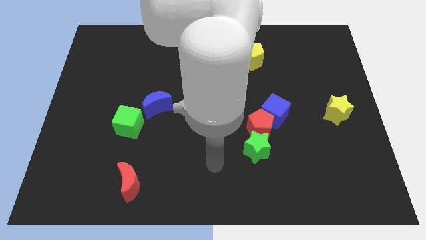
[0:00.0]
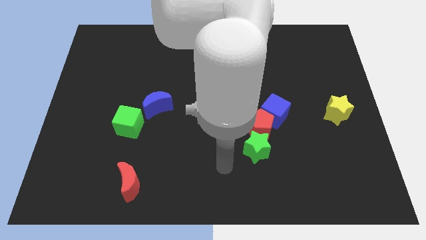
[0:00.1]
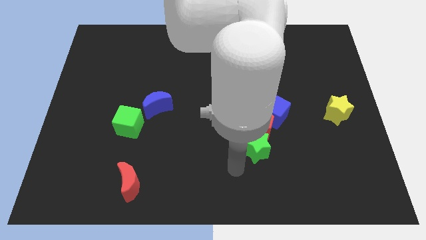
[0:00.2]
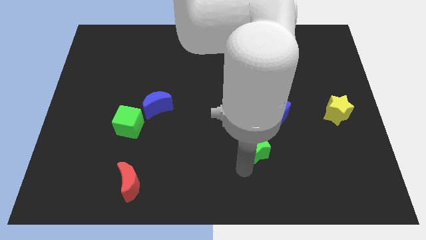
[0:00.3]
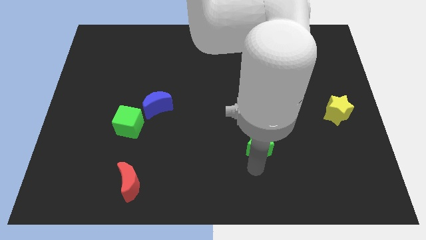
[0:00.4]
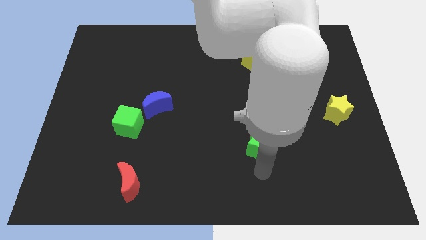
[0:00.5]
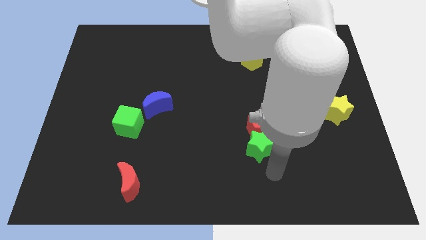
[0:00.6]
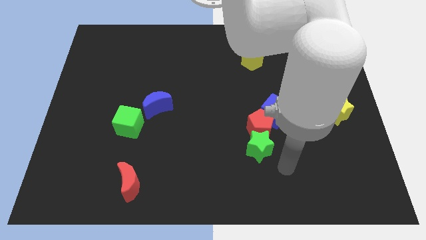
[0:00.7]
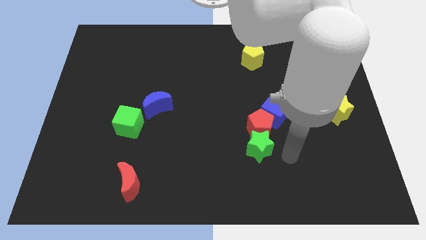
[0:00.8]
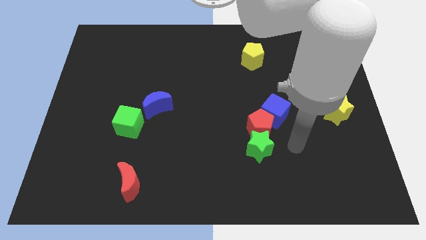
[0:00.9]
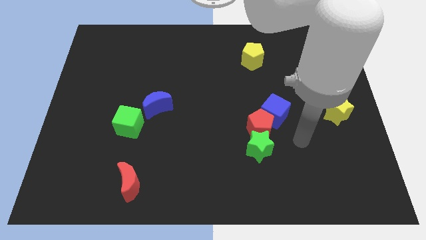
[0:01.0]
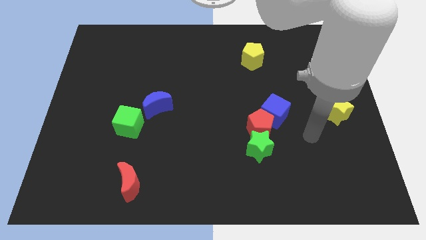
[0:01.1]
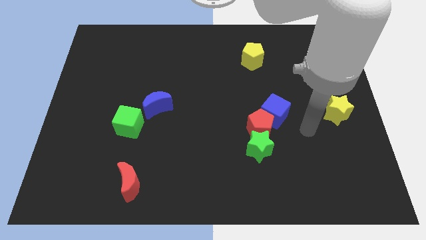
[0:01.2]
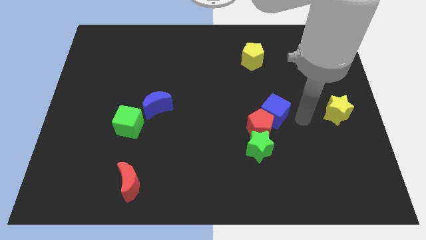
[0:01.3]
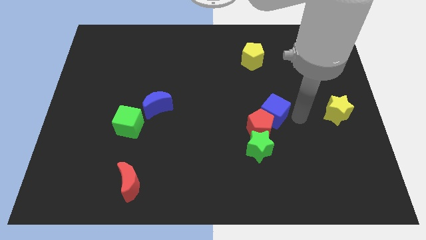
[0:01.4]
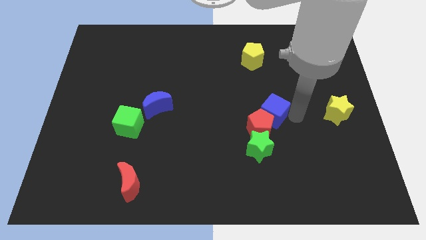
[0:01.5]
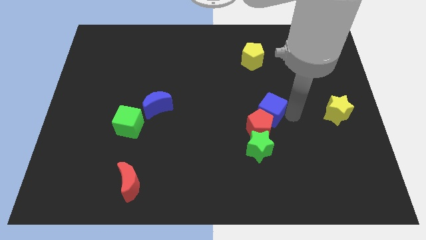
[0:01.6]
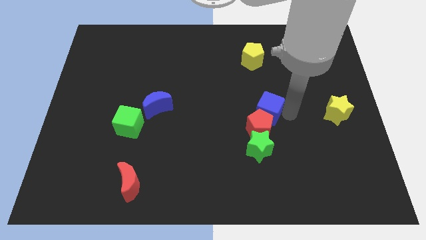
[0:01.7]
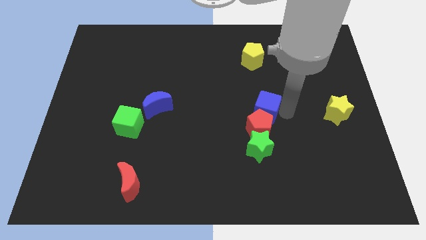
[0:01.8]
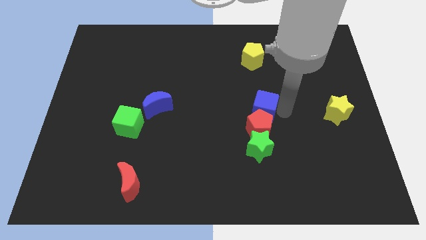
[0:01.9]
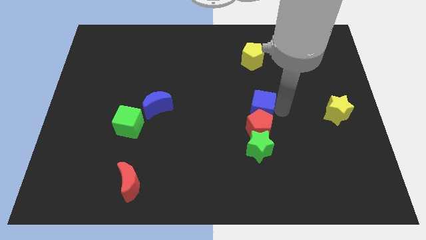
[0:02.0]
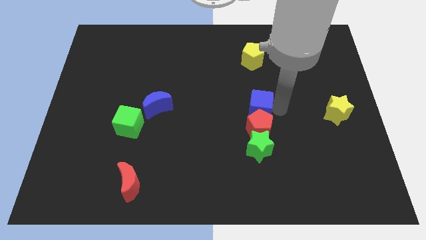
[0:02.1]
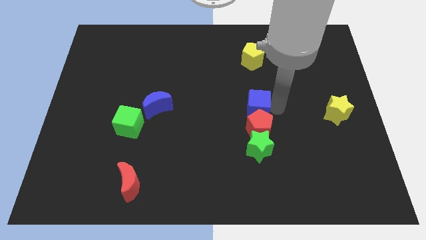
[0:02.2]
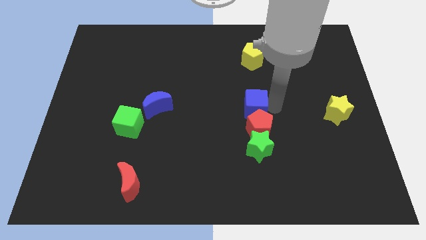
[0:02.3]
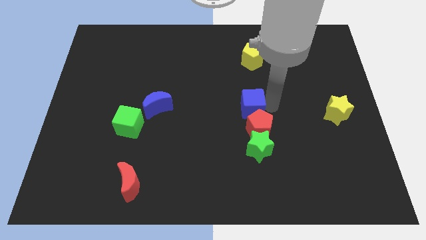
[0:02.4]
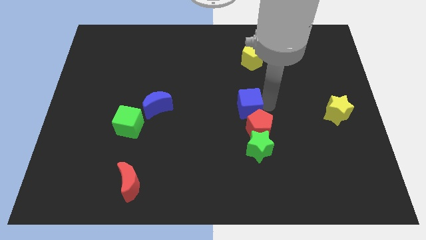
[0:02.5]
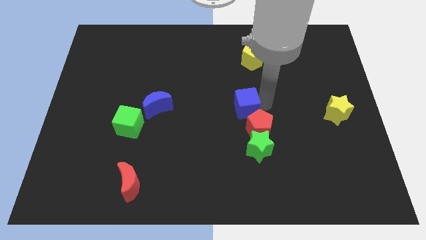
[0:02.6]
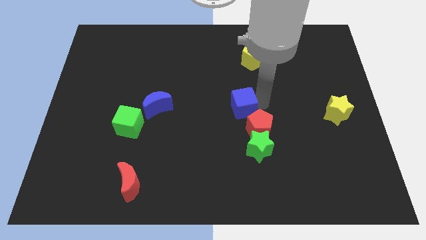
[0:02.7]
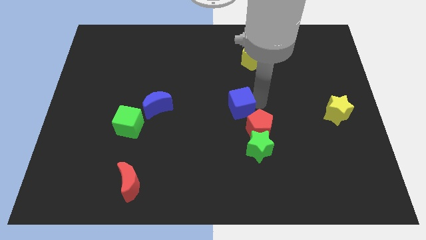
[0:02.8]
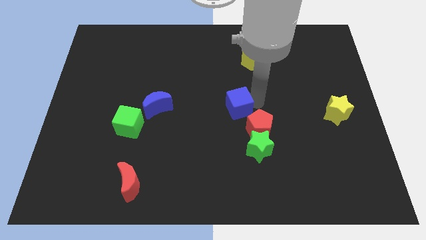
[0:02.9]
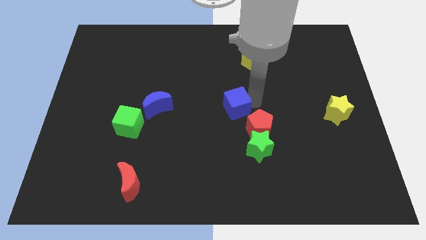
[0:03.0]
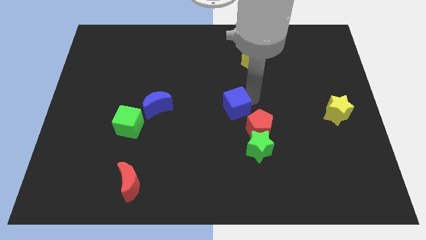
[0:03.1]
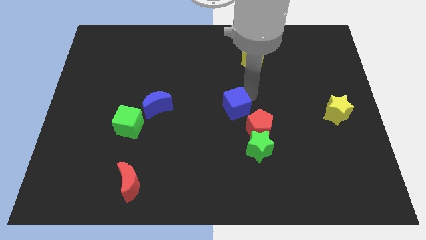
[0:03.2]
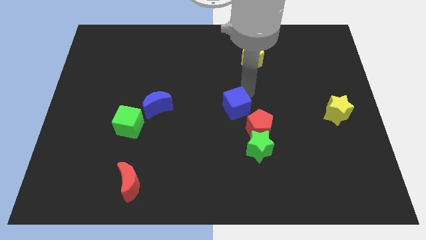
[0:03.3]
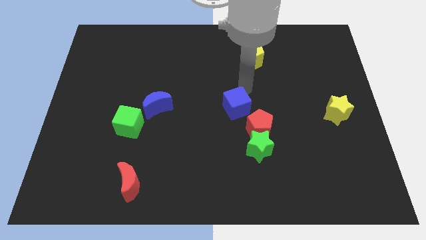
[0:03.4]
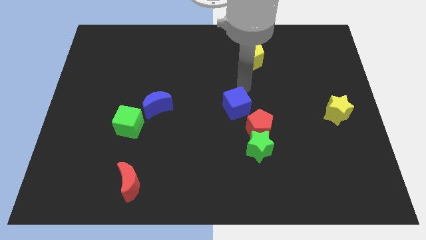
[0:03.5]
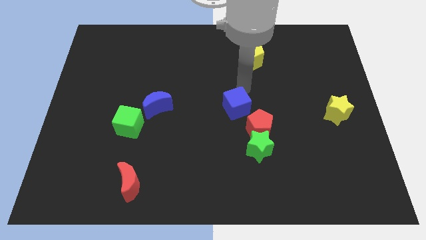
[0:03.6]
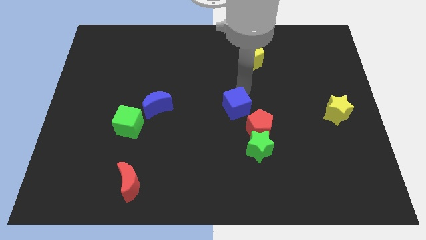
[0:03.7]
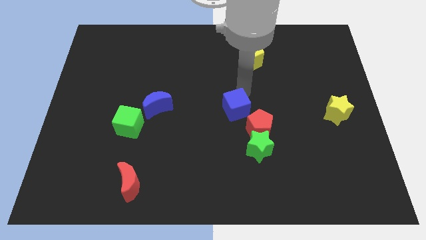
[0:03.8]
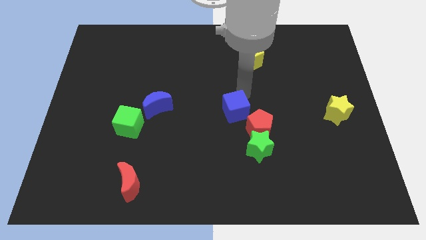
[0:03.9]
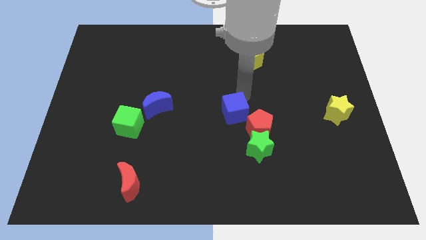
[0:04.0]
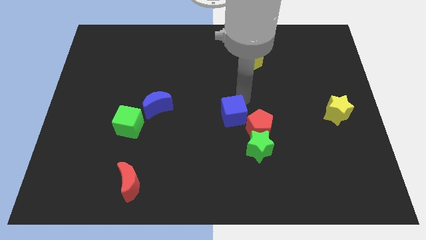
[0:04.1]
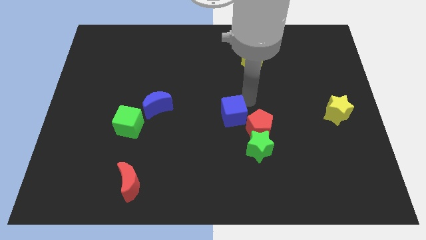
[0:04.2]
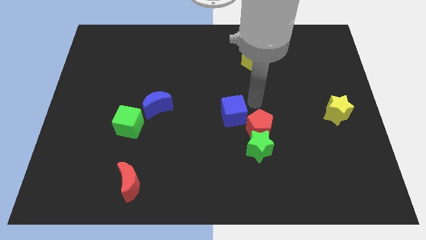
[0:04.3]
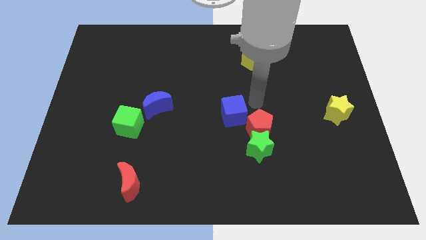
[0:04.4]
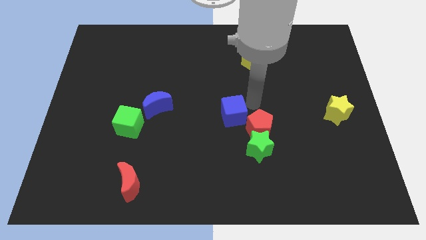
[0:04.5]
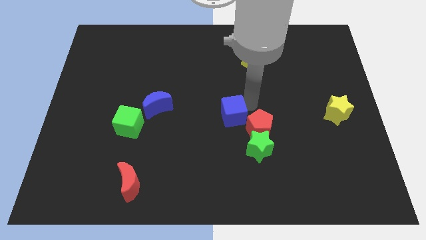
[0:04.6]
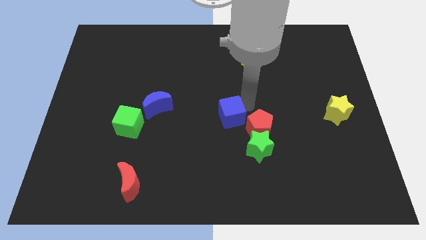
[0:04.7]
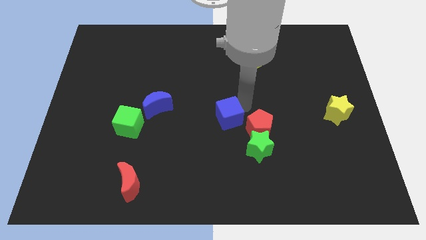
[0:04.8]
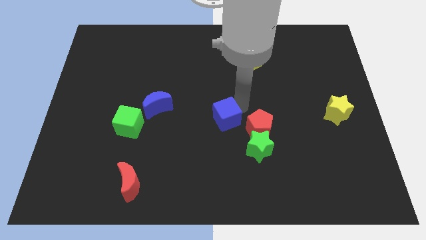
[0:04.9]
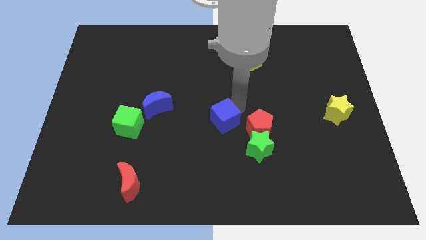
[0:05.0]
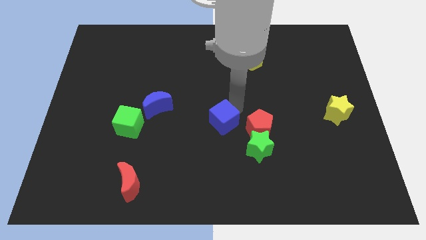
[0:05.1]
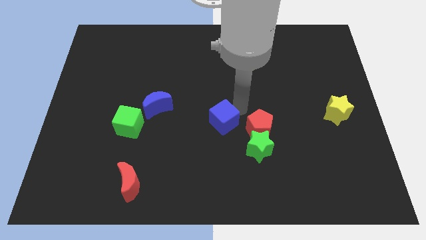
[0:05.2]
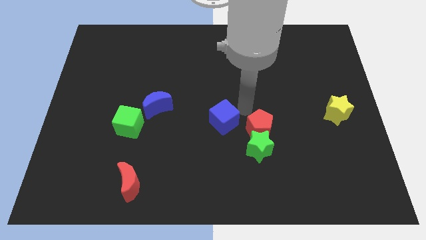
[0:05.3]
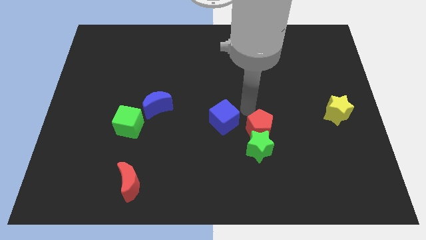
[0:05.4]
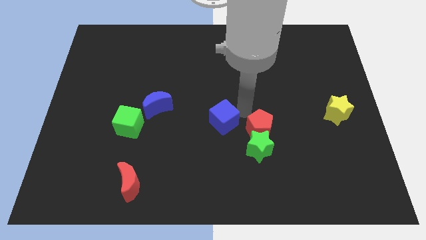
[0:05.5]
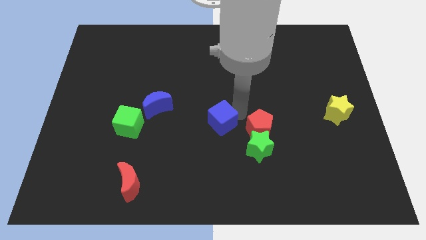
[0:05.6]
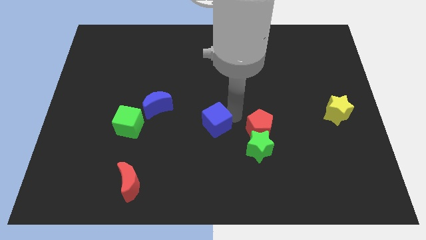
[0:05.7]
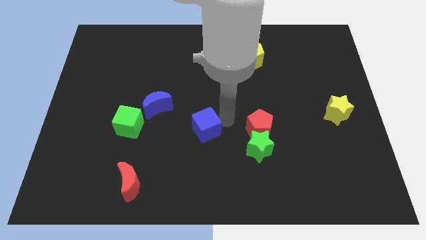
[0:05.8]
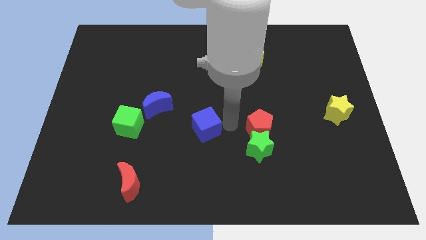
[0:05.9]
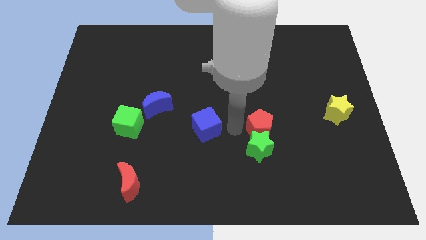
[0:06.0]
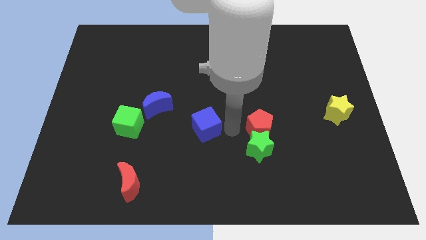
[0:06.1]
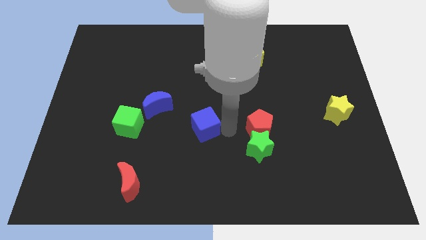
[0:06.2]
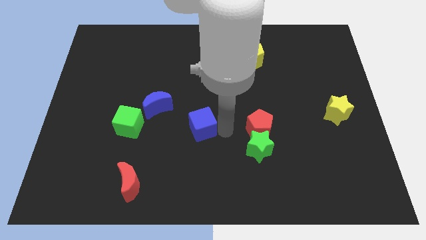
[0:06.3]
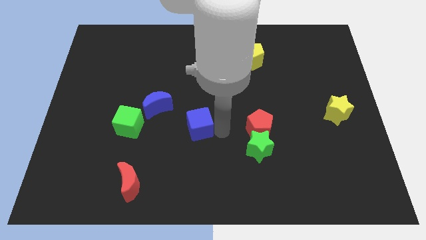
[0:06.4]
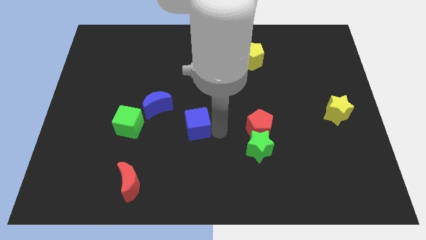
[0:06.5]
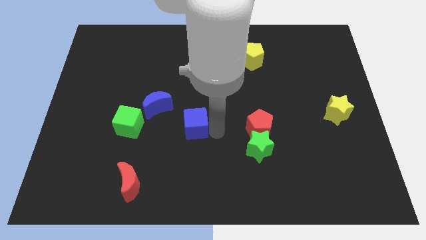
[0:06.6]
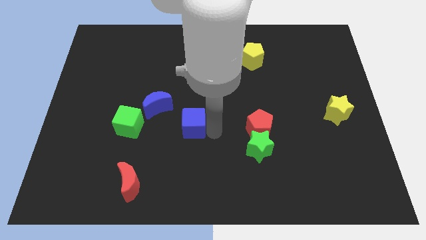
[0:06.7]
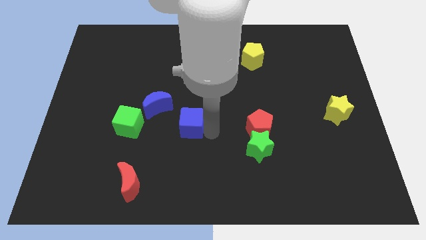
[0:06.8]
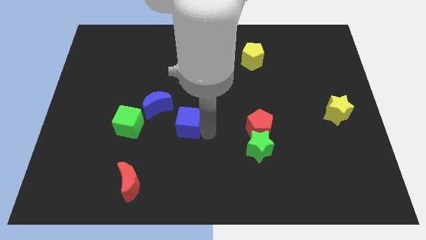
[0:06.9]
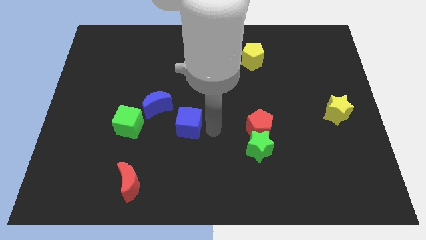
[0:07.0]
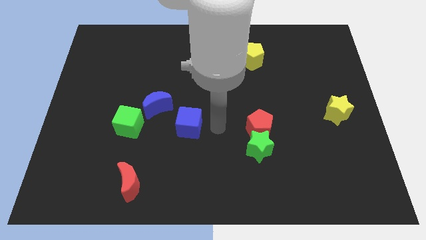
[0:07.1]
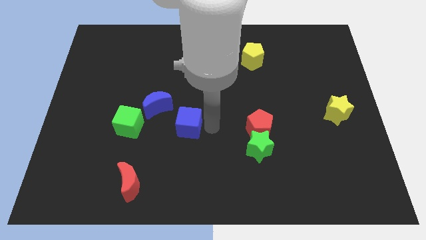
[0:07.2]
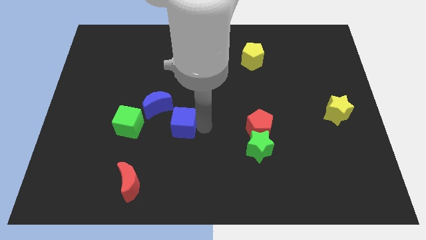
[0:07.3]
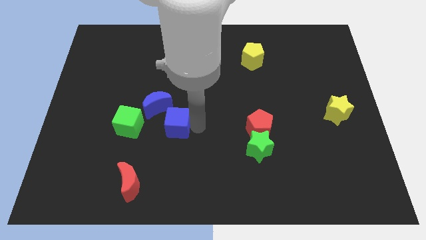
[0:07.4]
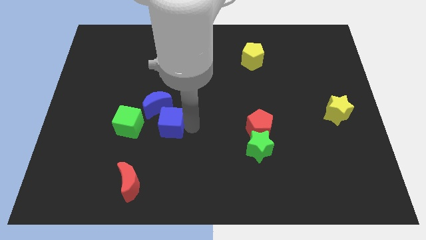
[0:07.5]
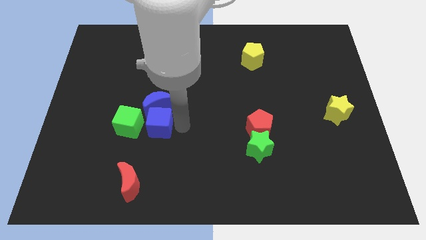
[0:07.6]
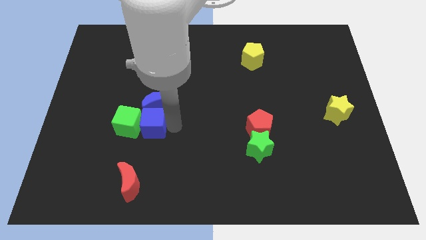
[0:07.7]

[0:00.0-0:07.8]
slide the blue cube close to the green cube
